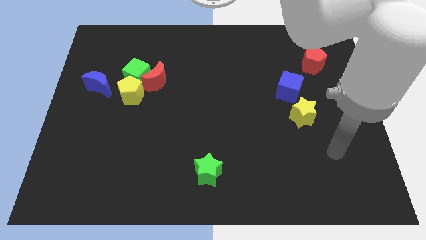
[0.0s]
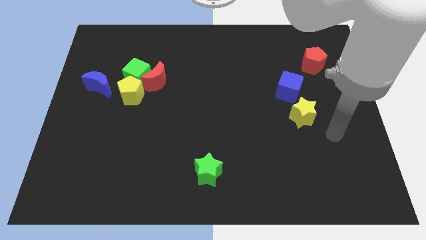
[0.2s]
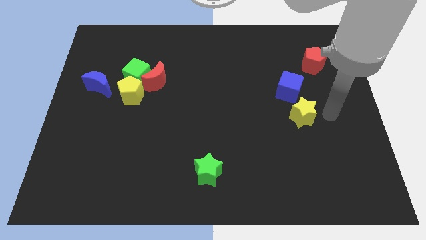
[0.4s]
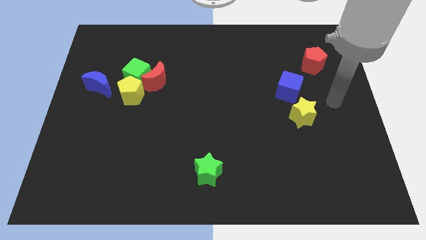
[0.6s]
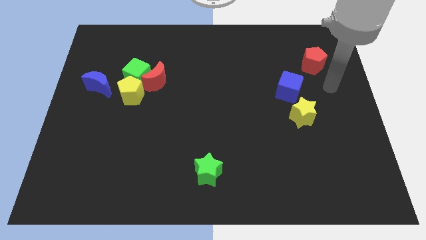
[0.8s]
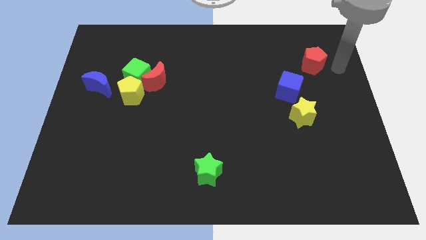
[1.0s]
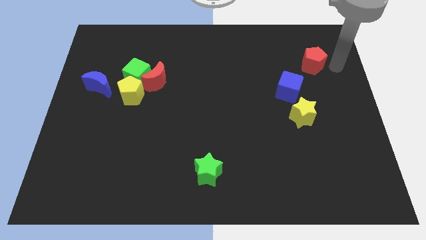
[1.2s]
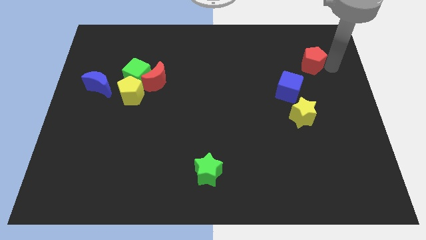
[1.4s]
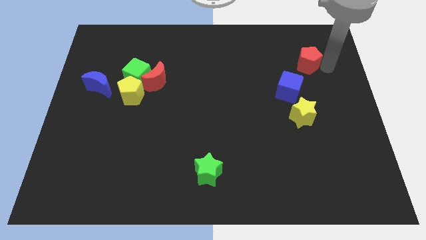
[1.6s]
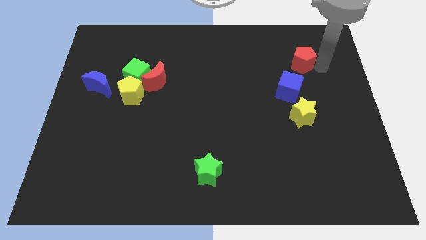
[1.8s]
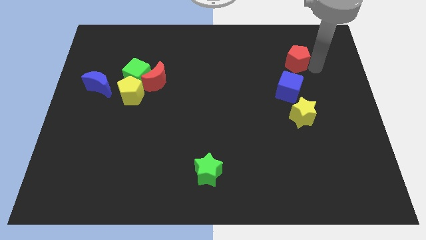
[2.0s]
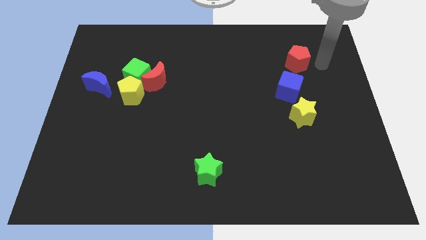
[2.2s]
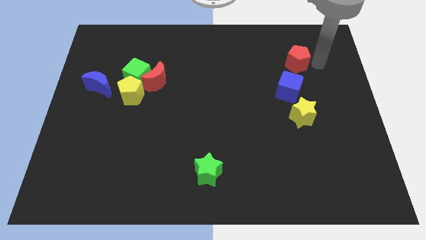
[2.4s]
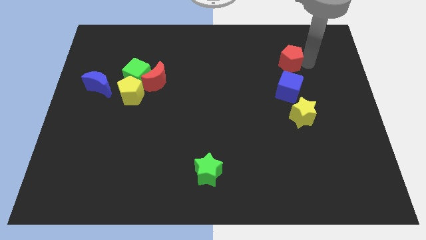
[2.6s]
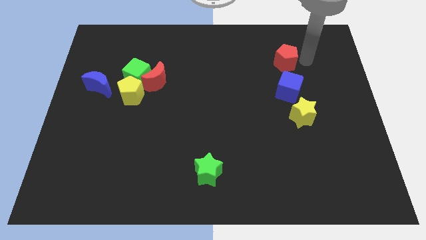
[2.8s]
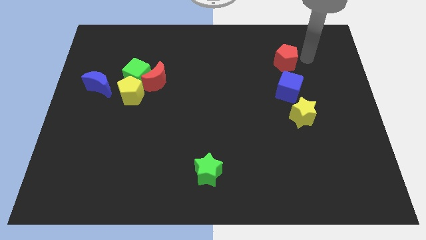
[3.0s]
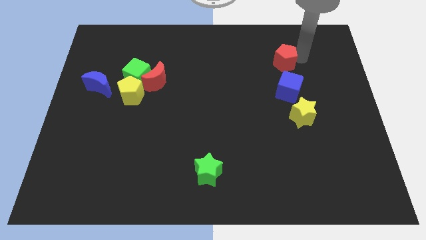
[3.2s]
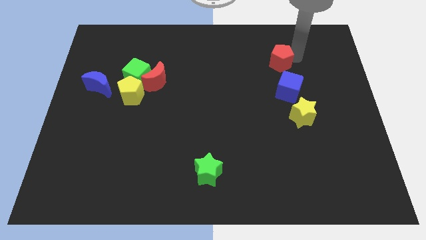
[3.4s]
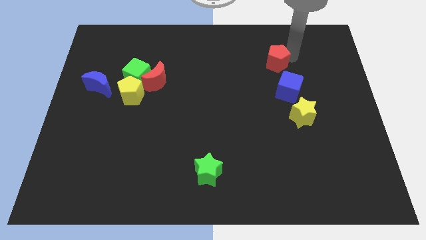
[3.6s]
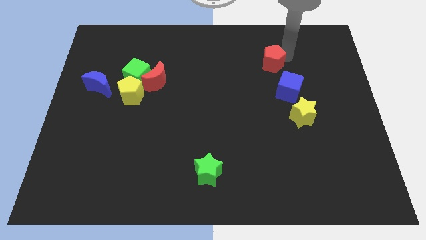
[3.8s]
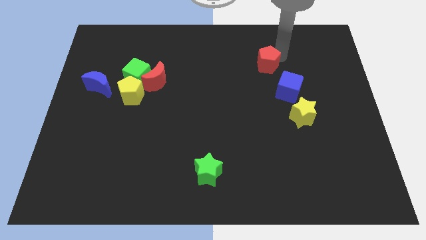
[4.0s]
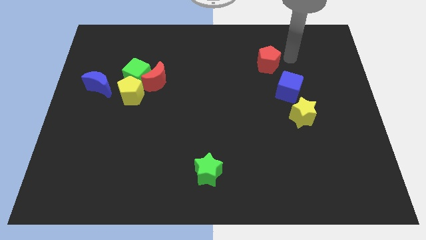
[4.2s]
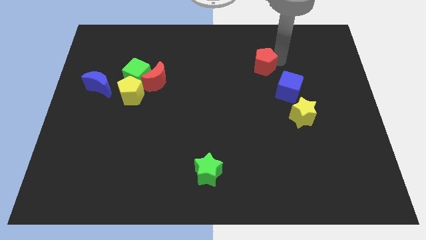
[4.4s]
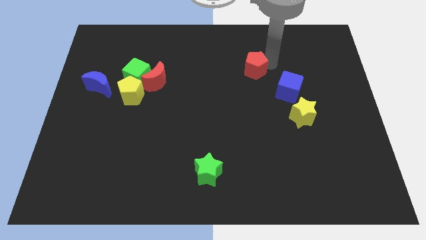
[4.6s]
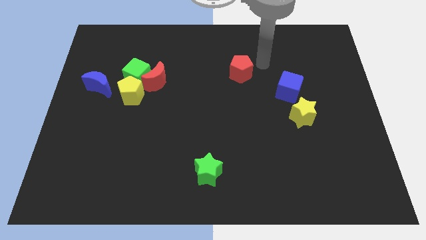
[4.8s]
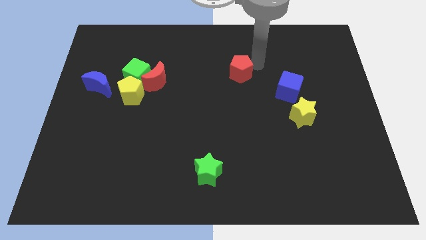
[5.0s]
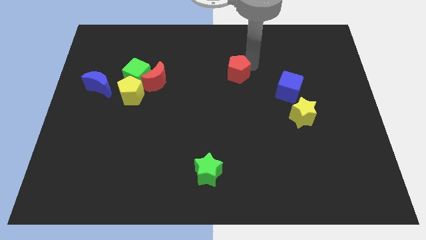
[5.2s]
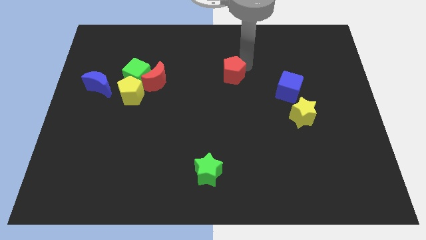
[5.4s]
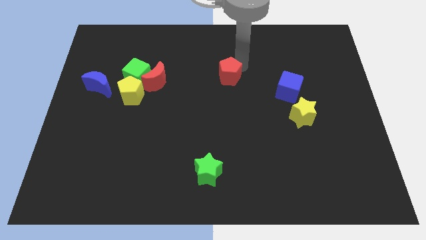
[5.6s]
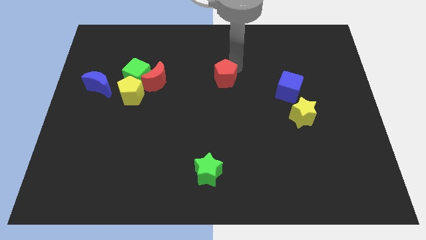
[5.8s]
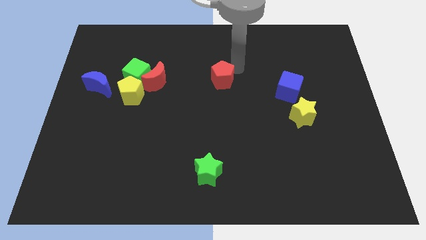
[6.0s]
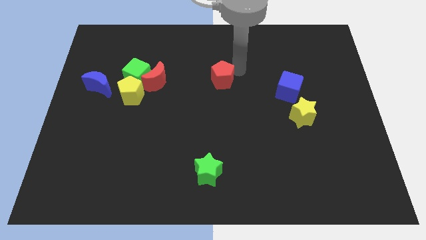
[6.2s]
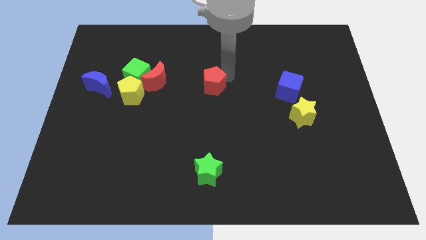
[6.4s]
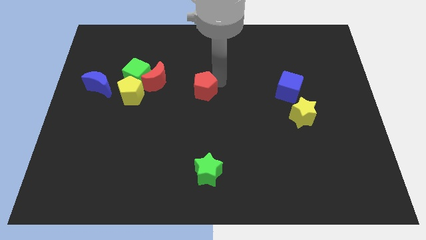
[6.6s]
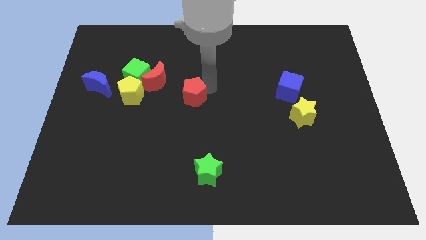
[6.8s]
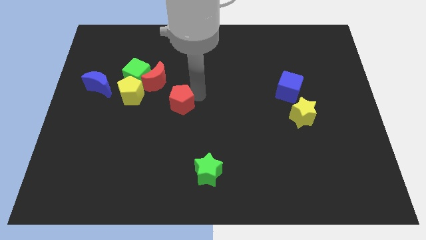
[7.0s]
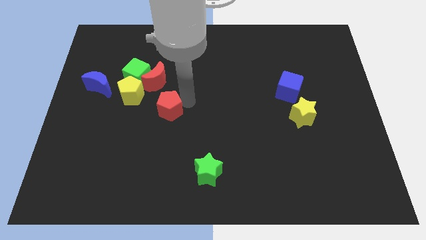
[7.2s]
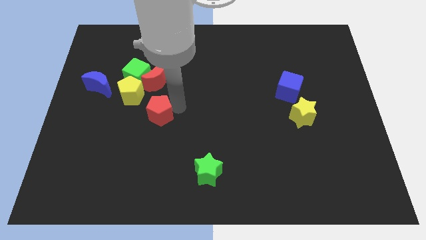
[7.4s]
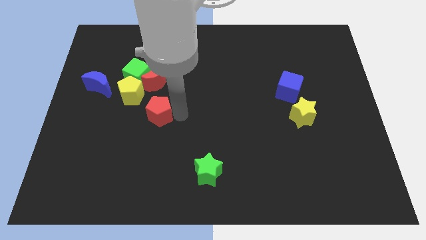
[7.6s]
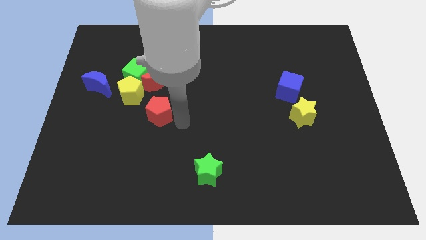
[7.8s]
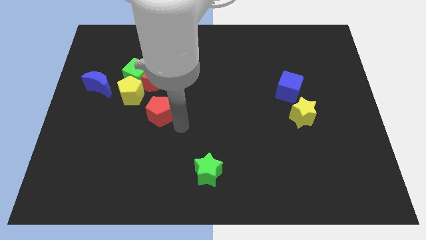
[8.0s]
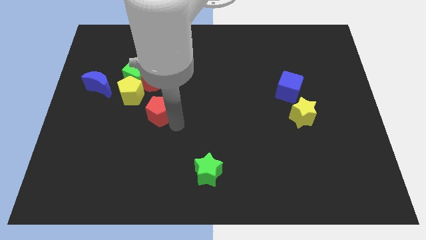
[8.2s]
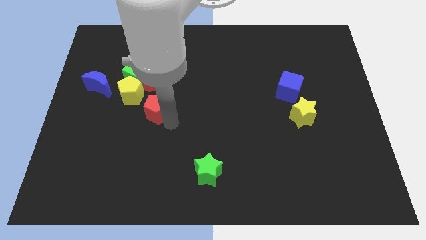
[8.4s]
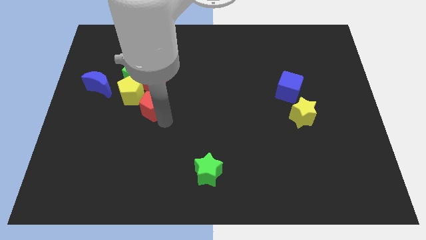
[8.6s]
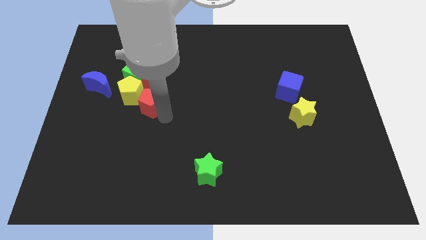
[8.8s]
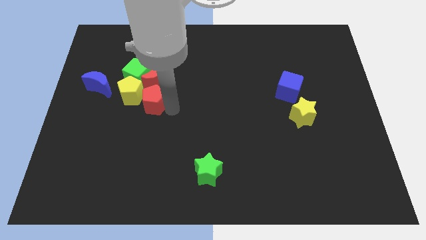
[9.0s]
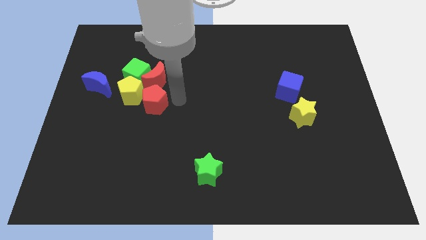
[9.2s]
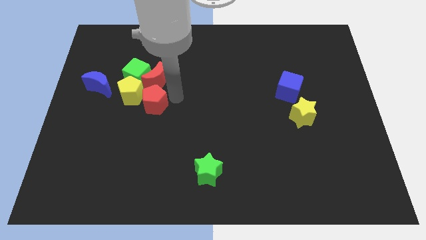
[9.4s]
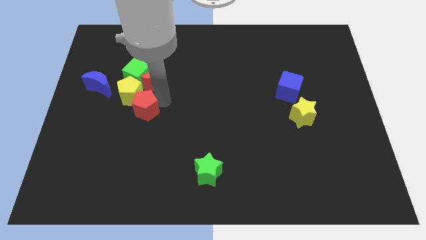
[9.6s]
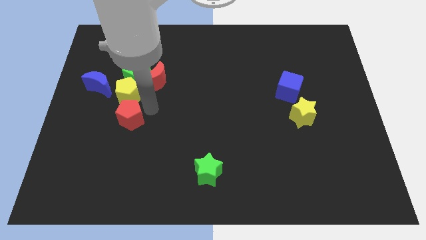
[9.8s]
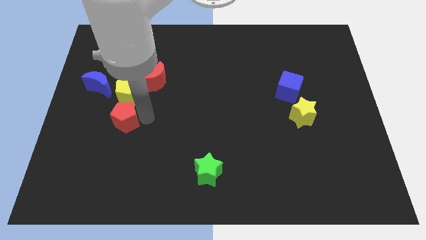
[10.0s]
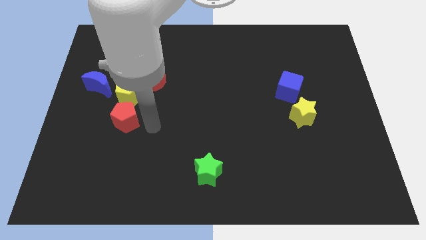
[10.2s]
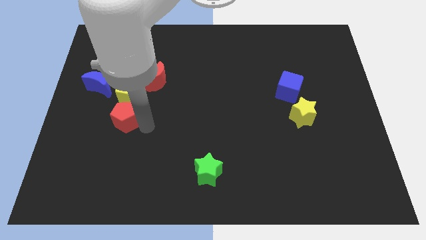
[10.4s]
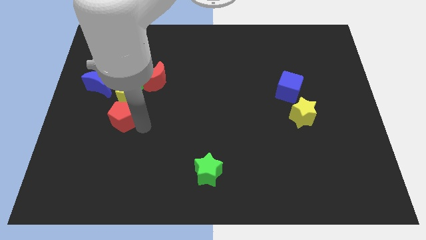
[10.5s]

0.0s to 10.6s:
push the red pentagon diagonally down and to the left of the yellow pentagon

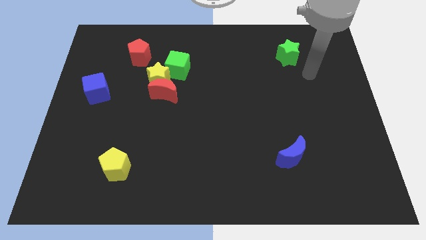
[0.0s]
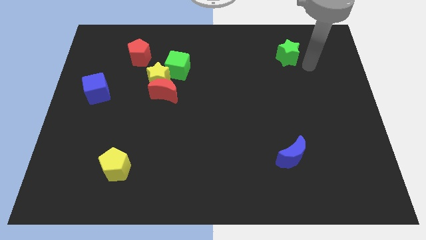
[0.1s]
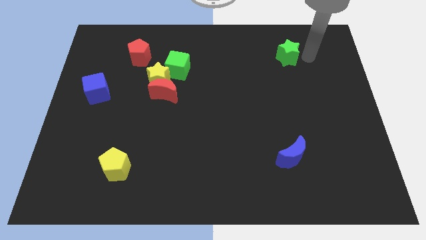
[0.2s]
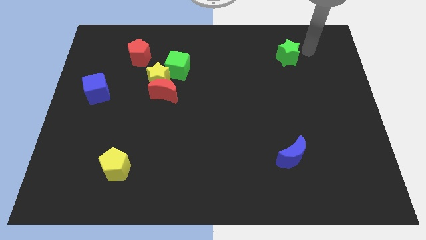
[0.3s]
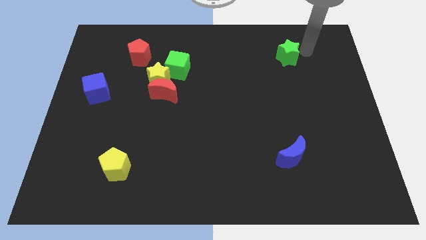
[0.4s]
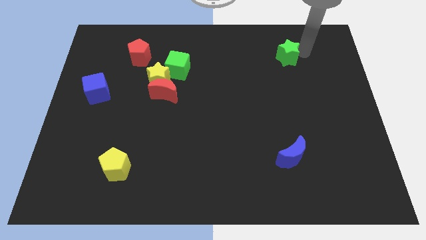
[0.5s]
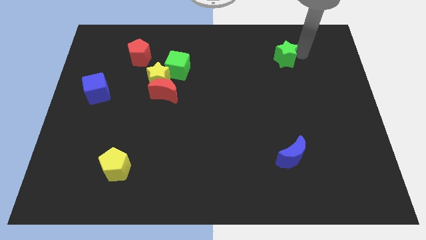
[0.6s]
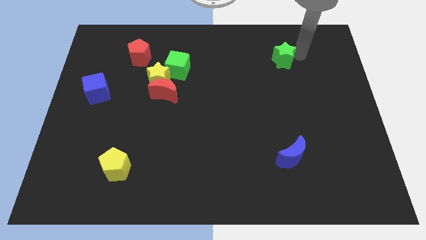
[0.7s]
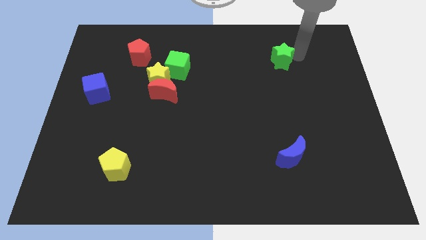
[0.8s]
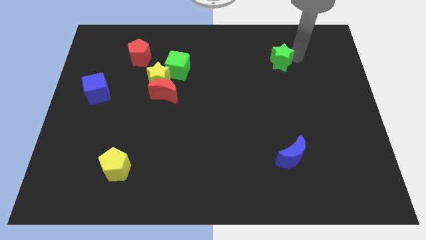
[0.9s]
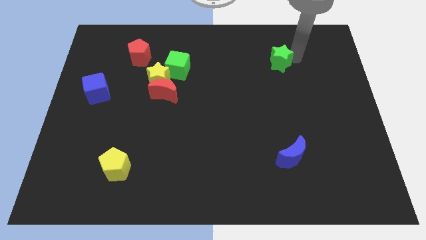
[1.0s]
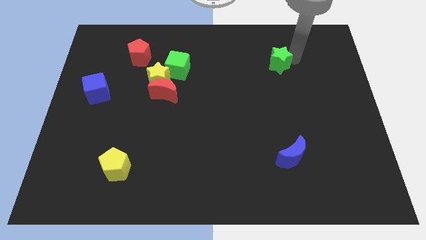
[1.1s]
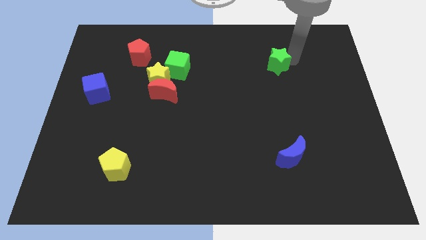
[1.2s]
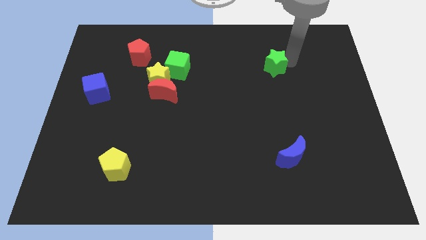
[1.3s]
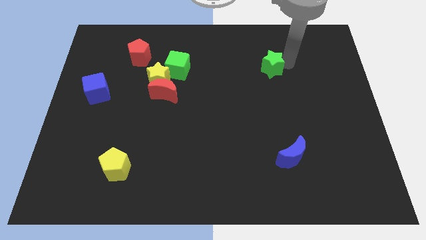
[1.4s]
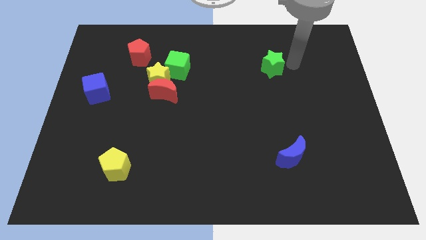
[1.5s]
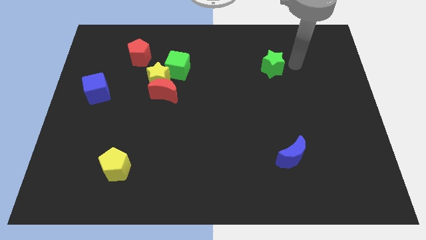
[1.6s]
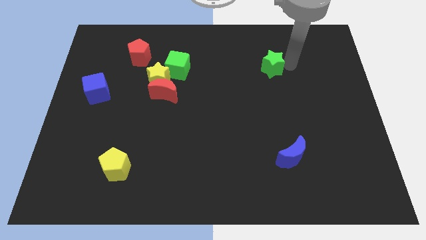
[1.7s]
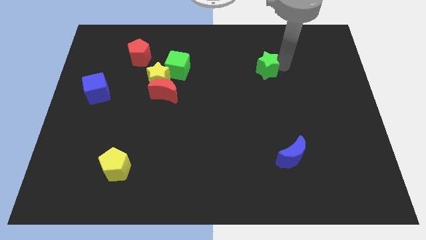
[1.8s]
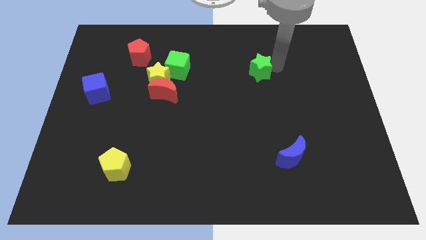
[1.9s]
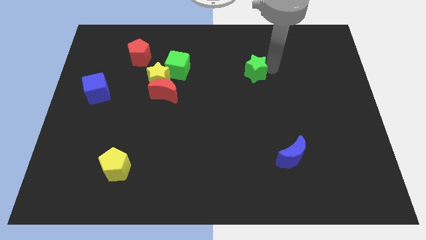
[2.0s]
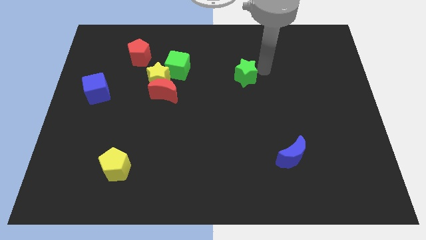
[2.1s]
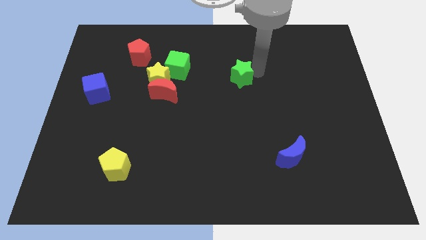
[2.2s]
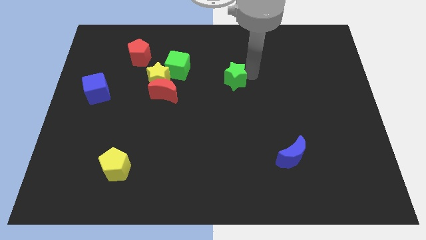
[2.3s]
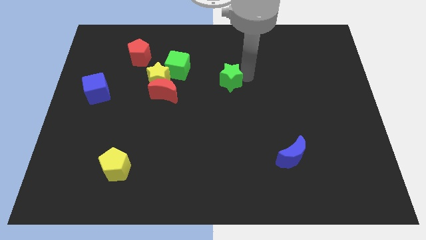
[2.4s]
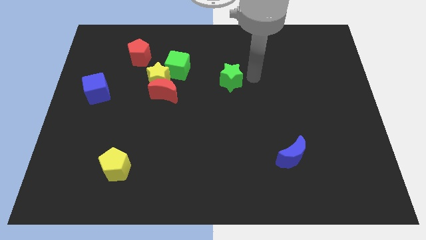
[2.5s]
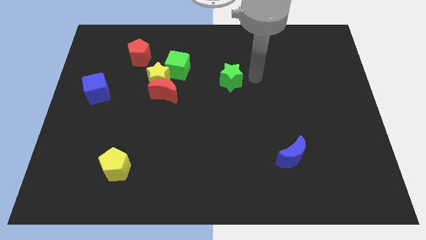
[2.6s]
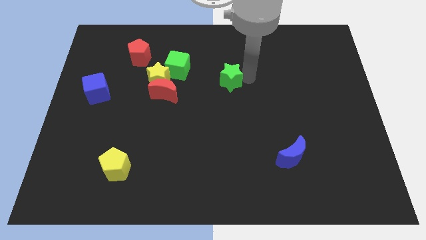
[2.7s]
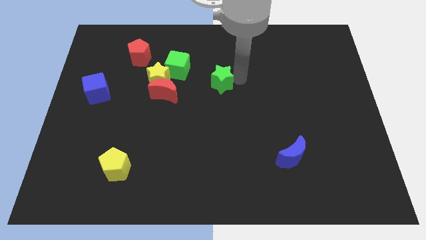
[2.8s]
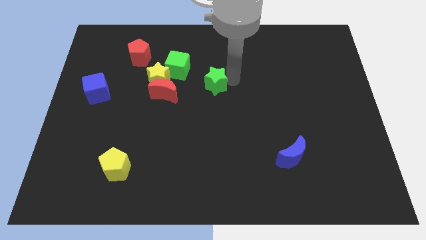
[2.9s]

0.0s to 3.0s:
move the green star diagonally down and to the right of the green cube
